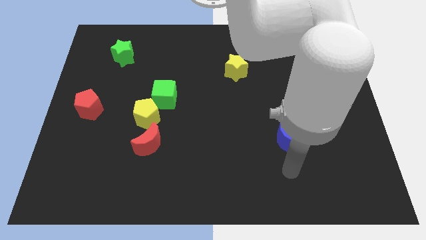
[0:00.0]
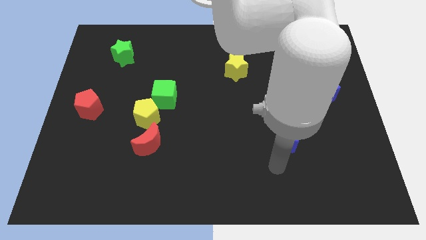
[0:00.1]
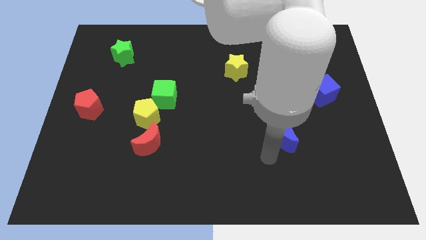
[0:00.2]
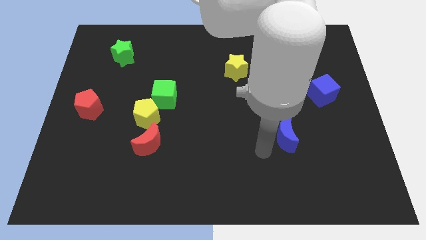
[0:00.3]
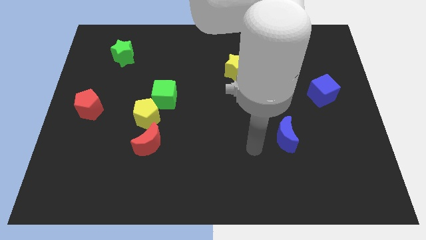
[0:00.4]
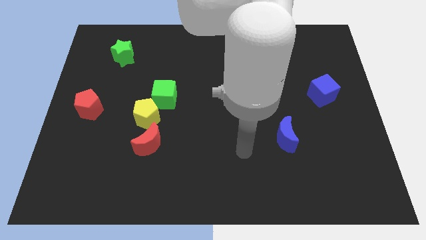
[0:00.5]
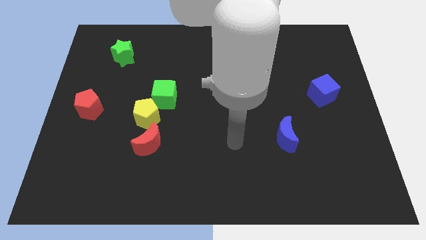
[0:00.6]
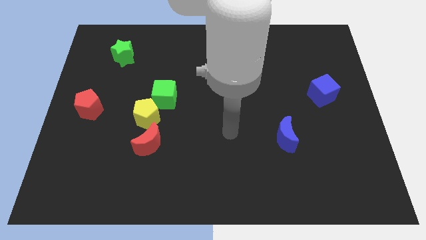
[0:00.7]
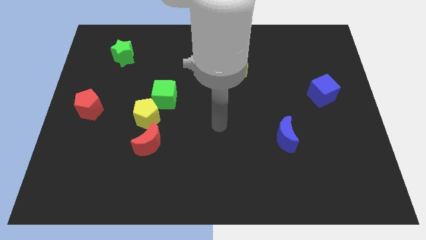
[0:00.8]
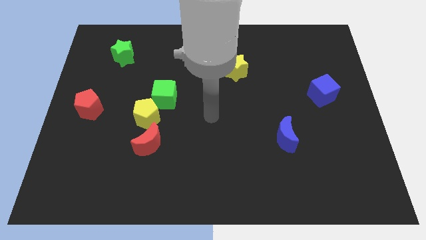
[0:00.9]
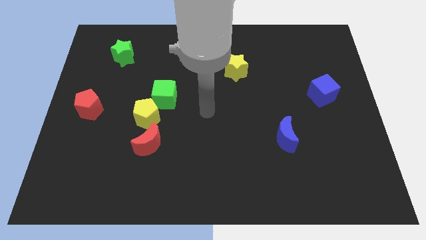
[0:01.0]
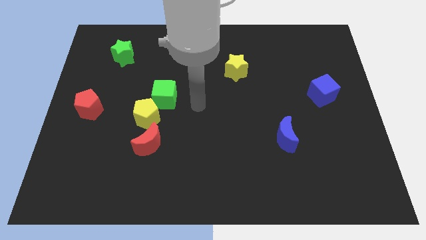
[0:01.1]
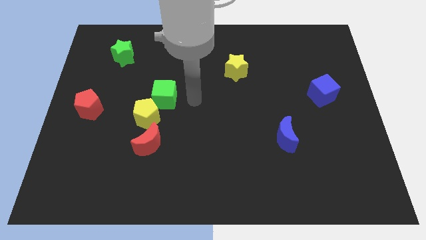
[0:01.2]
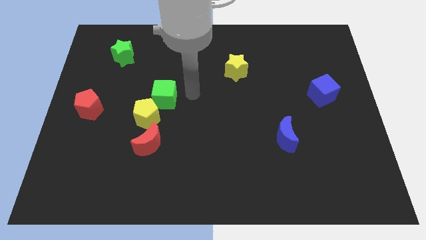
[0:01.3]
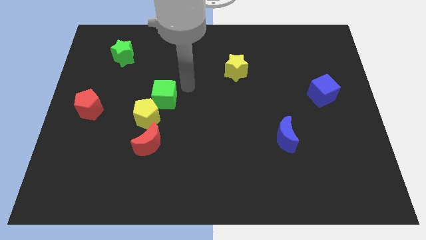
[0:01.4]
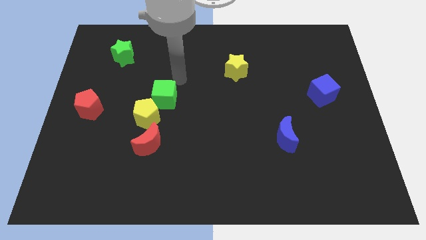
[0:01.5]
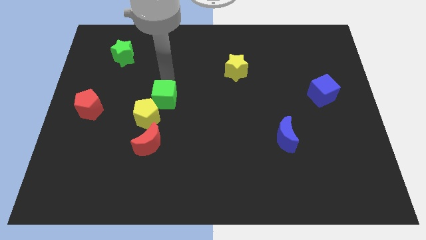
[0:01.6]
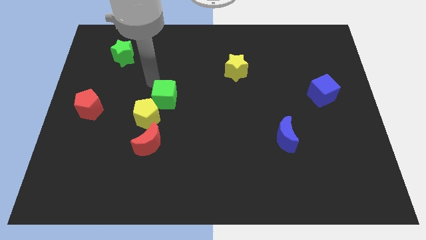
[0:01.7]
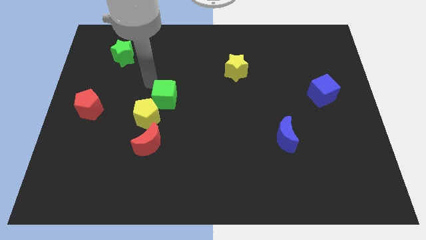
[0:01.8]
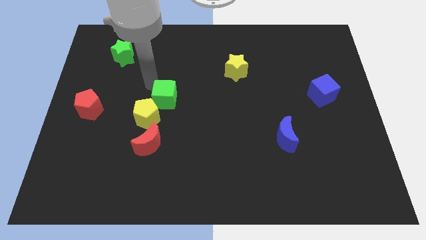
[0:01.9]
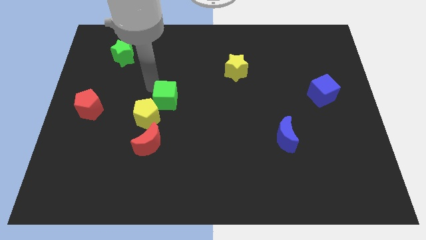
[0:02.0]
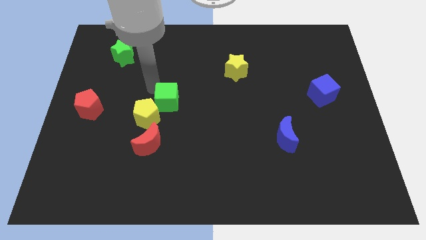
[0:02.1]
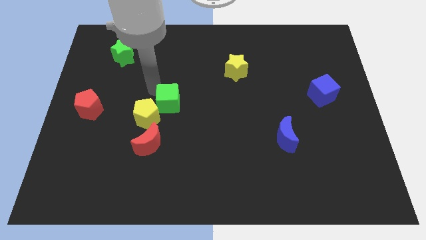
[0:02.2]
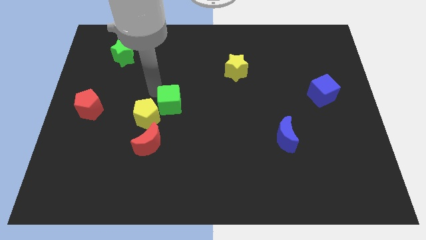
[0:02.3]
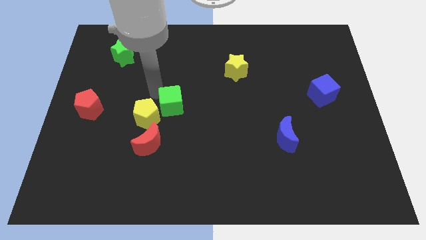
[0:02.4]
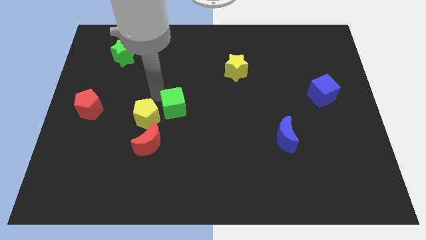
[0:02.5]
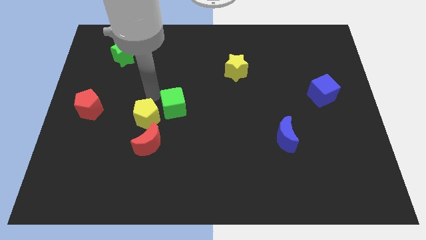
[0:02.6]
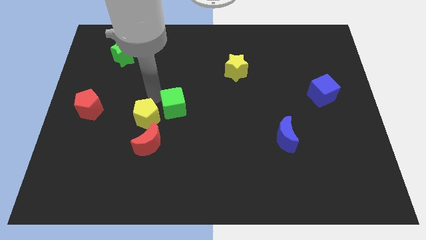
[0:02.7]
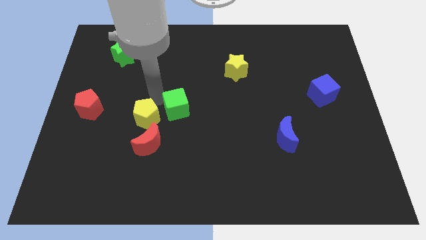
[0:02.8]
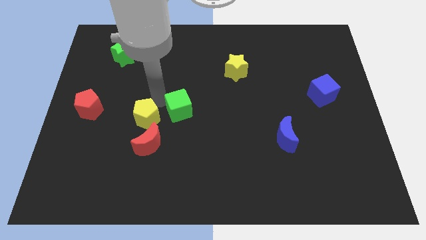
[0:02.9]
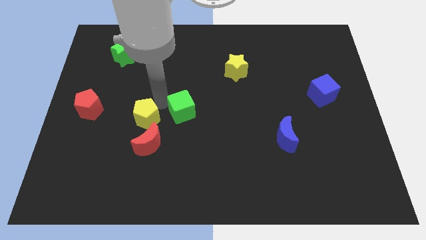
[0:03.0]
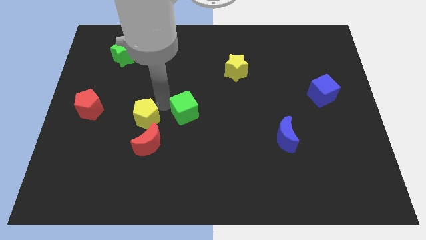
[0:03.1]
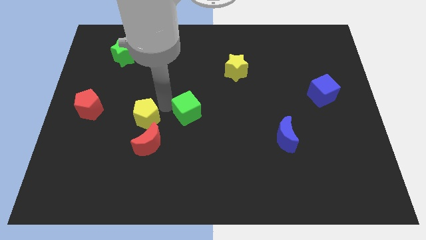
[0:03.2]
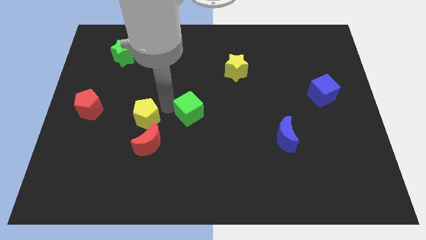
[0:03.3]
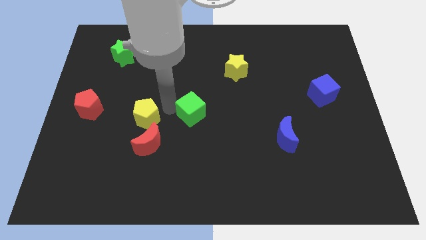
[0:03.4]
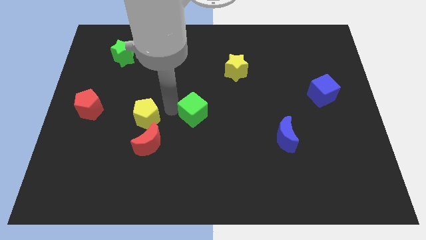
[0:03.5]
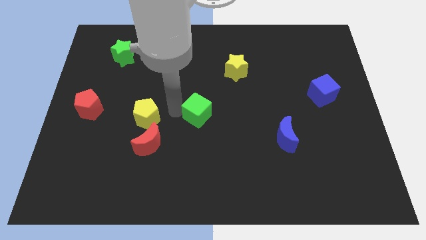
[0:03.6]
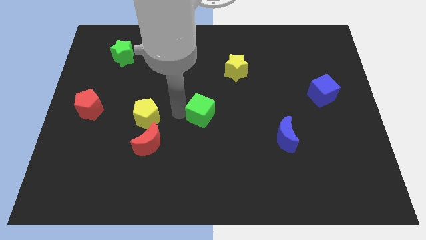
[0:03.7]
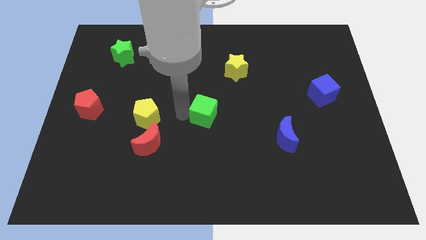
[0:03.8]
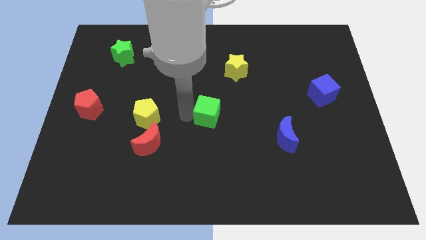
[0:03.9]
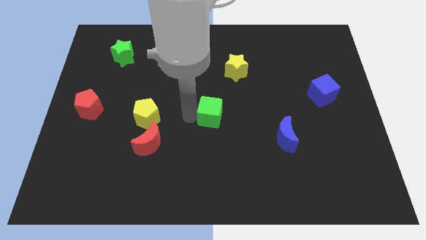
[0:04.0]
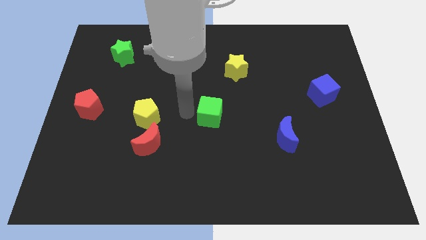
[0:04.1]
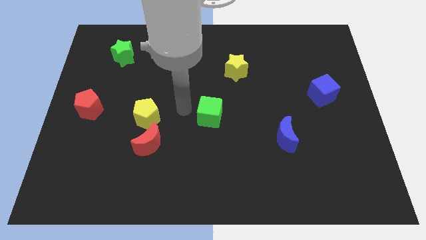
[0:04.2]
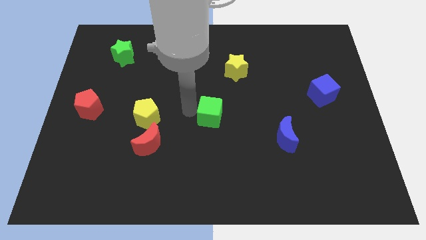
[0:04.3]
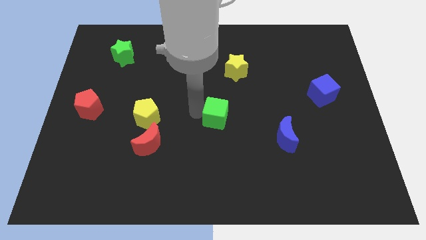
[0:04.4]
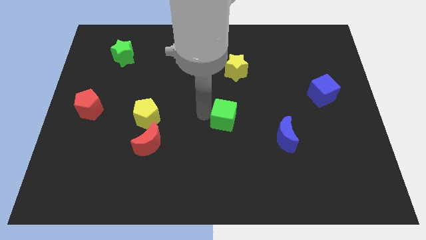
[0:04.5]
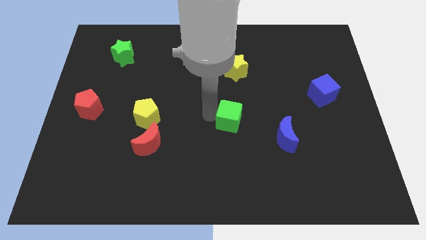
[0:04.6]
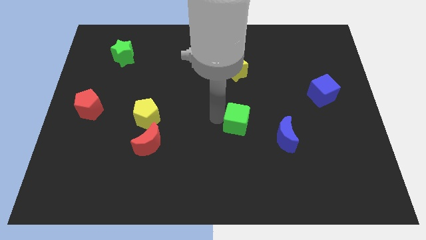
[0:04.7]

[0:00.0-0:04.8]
move the green cube diagonally up and to the left of the blue moon

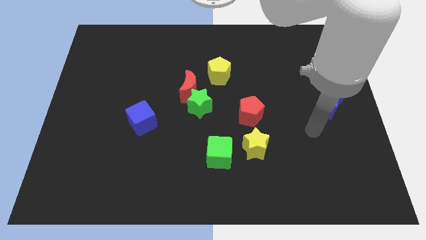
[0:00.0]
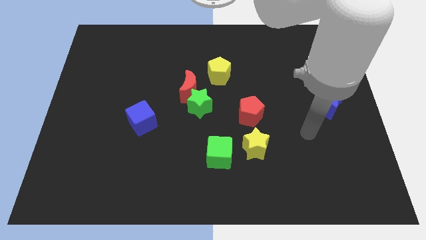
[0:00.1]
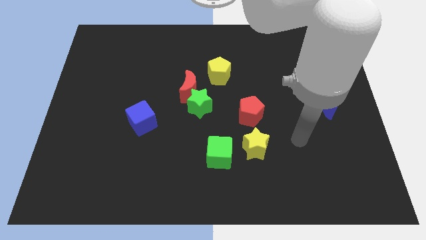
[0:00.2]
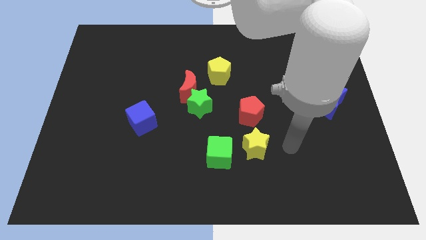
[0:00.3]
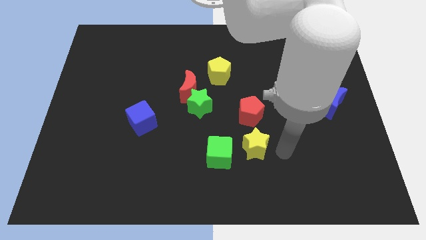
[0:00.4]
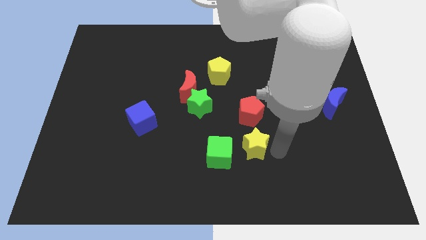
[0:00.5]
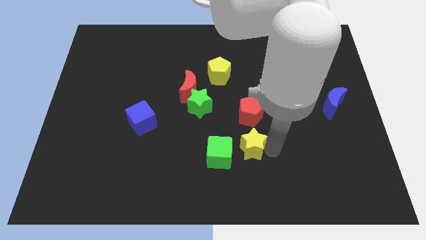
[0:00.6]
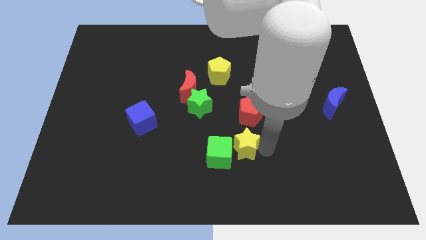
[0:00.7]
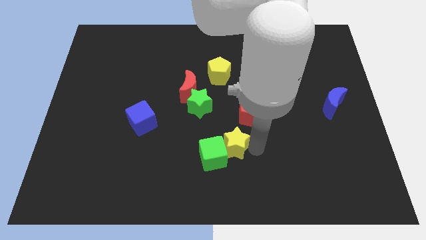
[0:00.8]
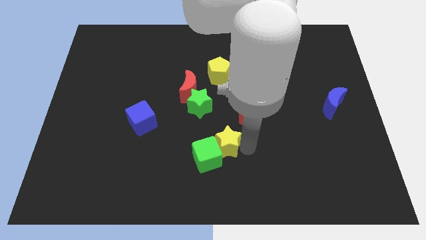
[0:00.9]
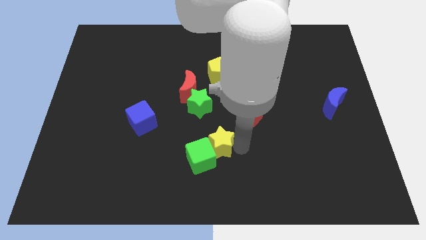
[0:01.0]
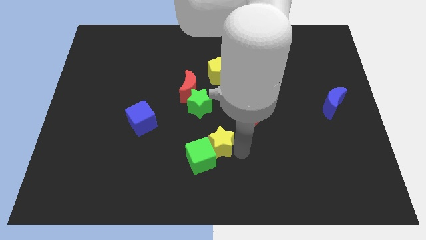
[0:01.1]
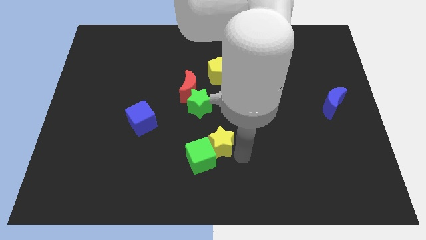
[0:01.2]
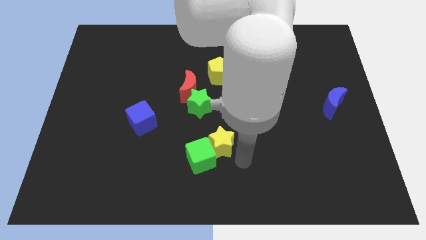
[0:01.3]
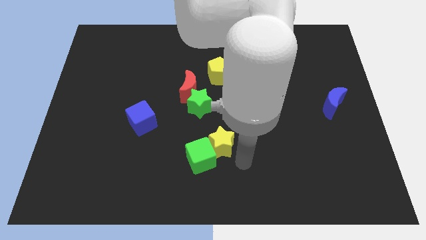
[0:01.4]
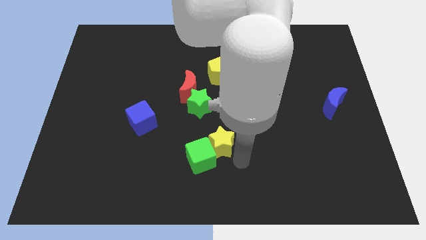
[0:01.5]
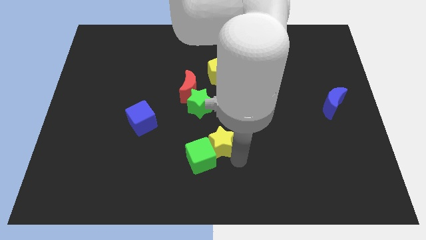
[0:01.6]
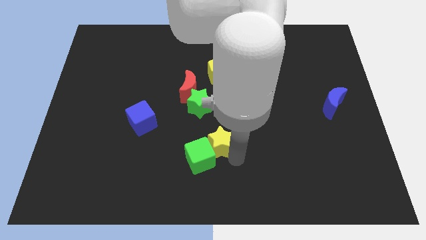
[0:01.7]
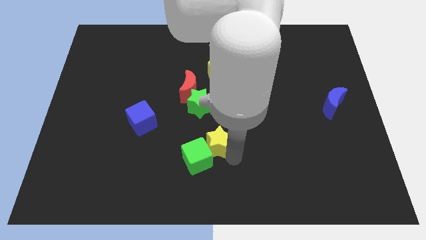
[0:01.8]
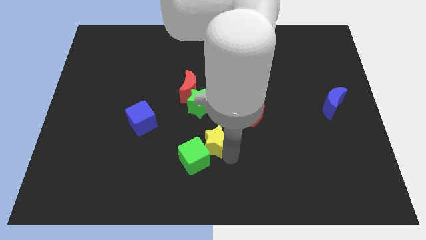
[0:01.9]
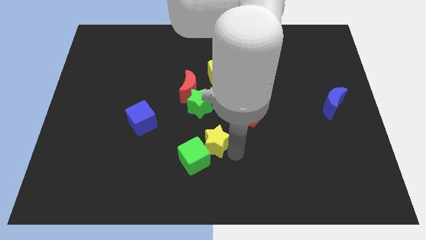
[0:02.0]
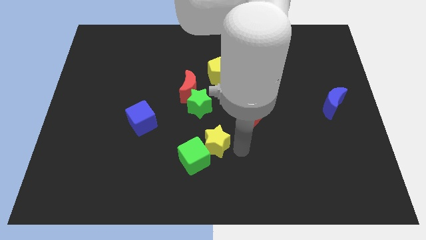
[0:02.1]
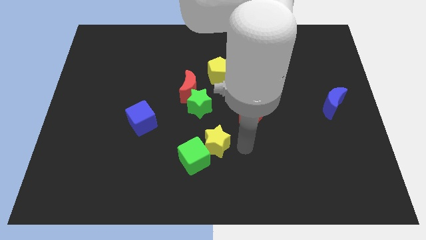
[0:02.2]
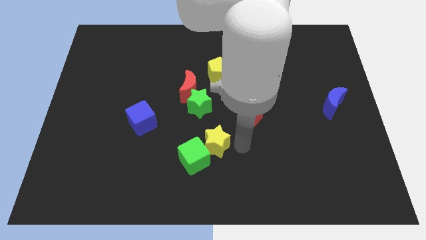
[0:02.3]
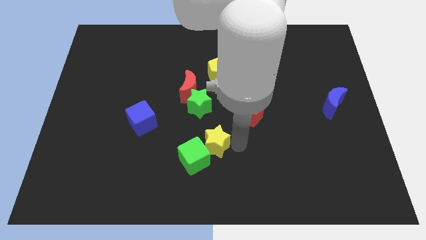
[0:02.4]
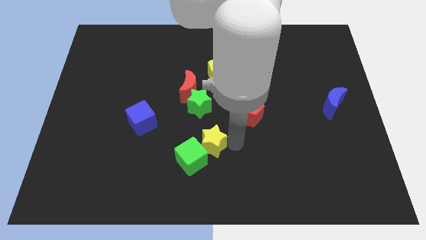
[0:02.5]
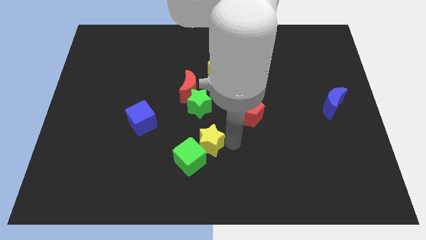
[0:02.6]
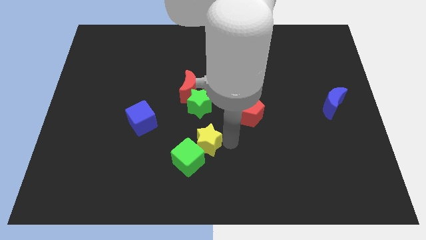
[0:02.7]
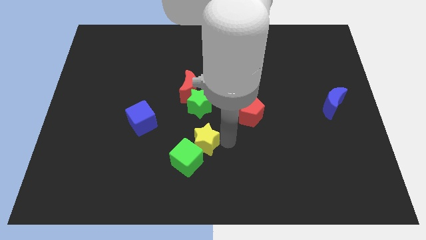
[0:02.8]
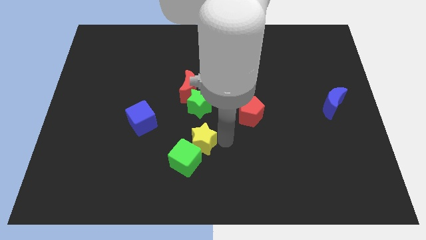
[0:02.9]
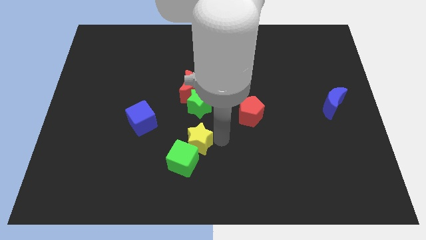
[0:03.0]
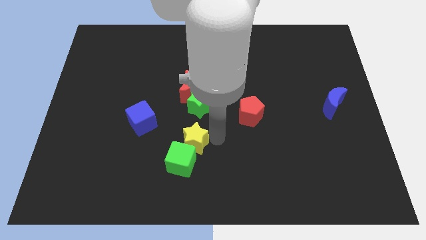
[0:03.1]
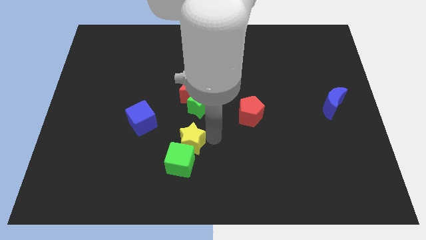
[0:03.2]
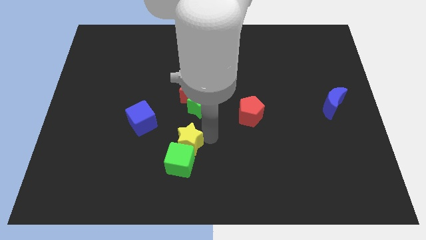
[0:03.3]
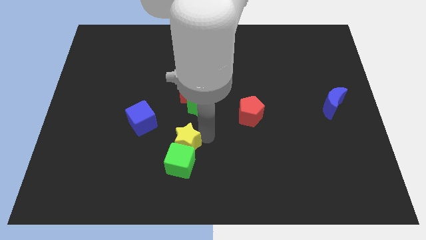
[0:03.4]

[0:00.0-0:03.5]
push the yellow star to the bottom right side of the blue cube
